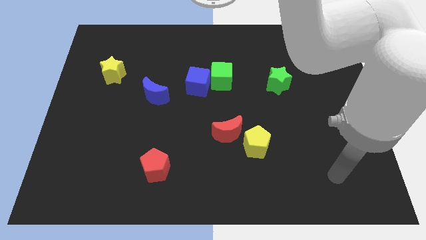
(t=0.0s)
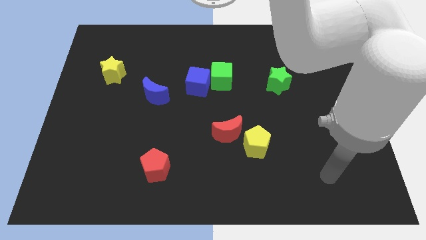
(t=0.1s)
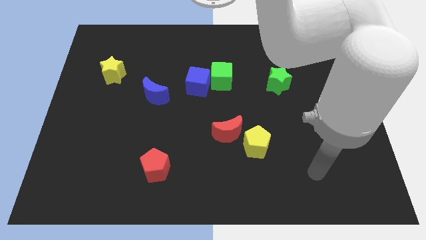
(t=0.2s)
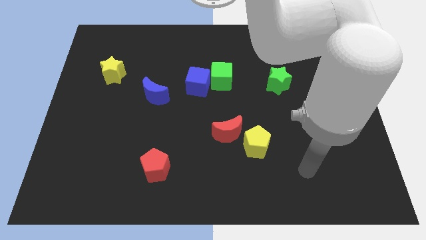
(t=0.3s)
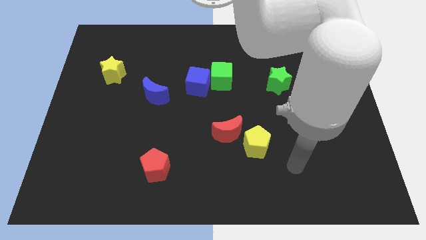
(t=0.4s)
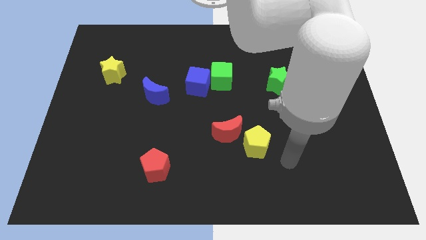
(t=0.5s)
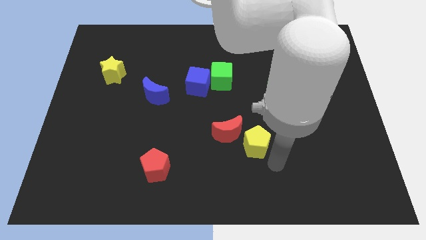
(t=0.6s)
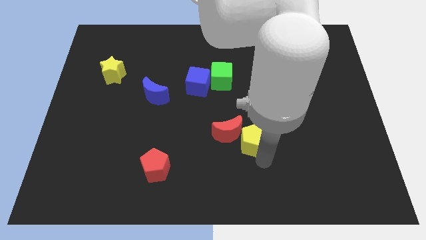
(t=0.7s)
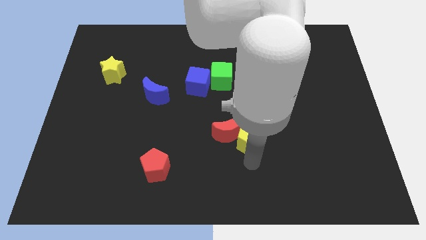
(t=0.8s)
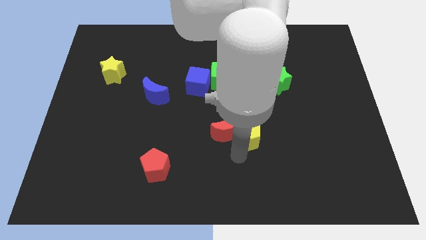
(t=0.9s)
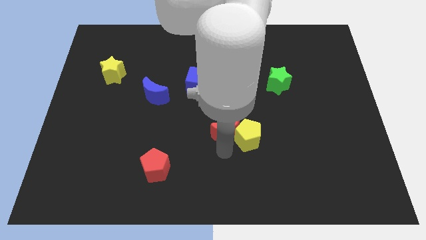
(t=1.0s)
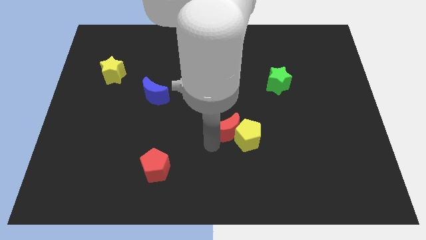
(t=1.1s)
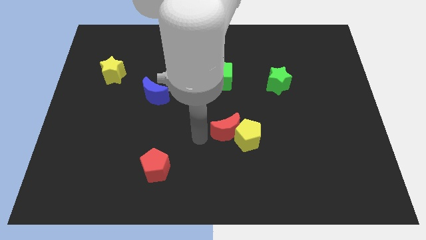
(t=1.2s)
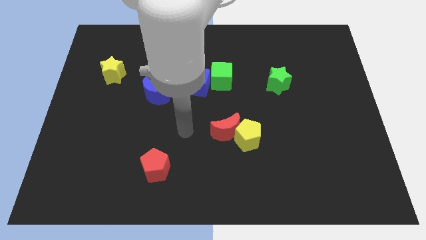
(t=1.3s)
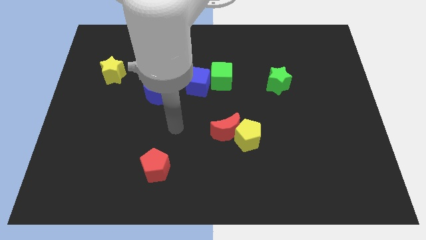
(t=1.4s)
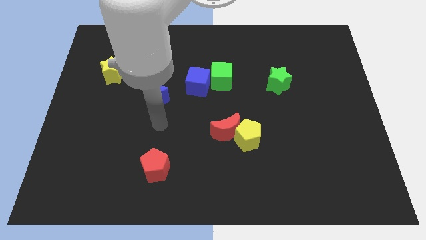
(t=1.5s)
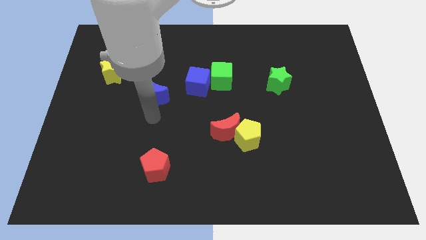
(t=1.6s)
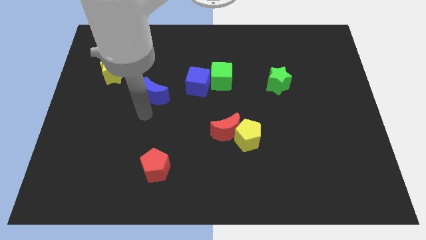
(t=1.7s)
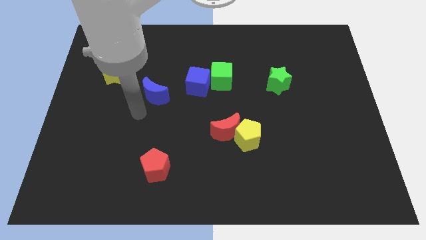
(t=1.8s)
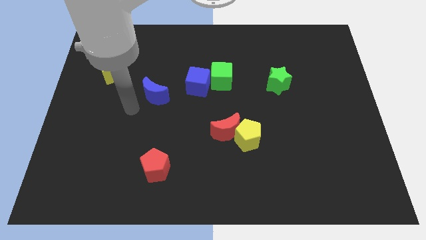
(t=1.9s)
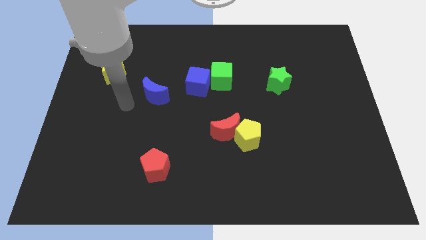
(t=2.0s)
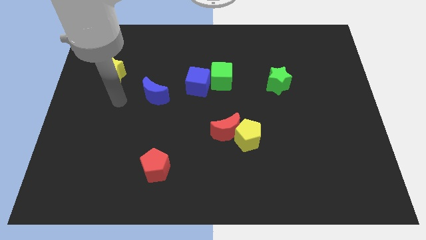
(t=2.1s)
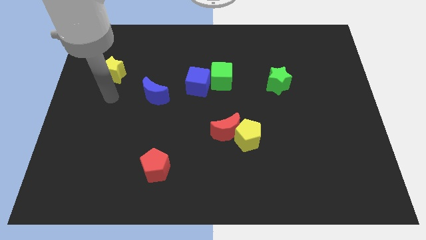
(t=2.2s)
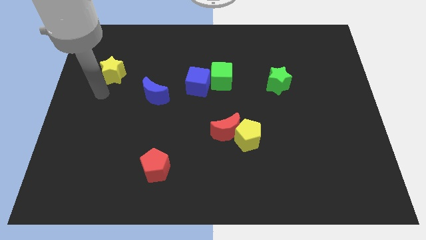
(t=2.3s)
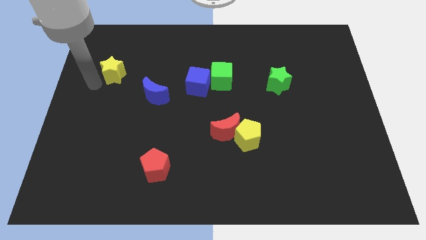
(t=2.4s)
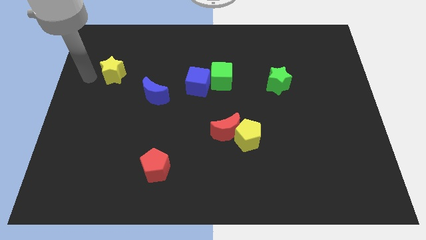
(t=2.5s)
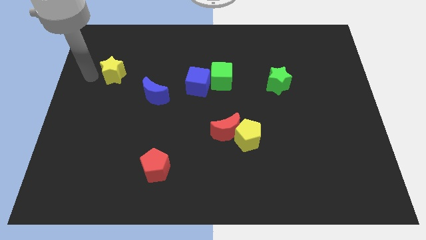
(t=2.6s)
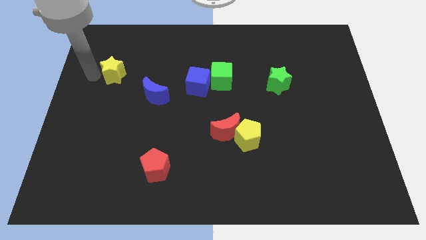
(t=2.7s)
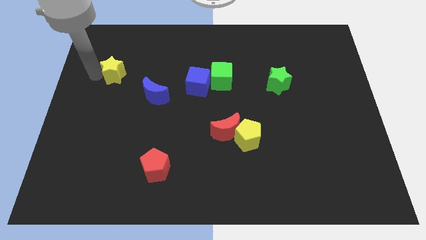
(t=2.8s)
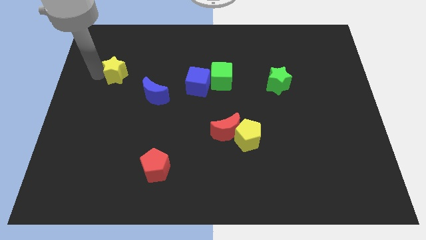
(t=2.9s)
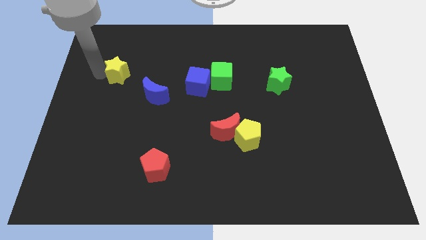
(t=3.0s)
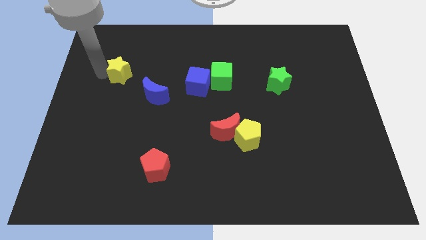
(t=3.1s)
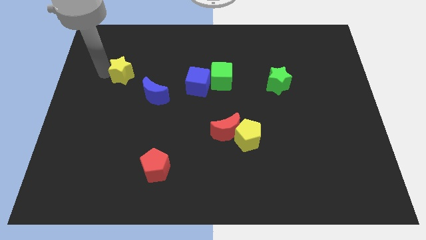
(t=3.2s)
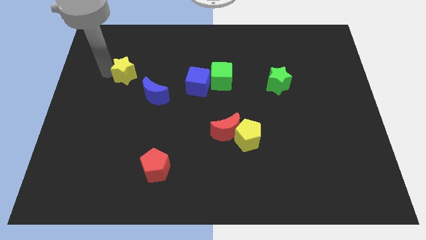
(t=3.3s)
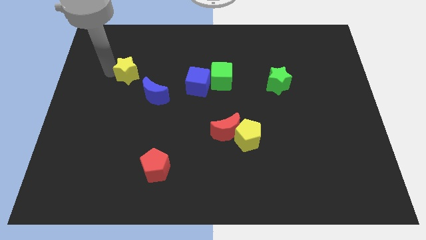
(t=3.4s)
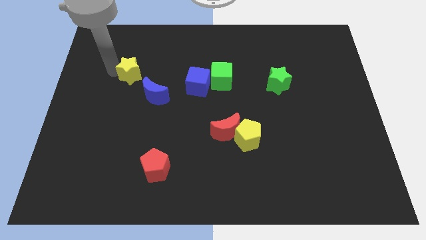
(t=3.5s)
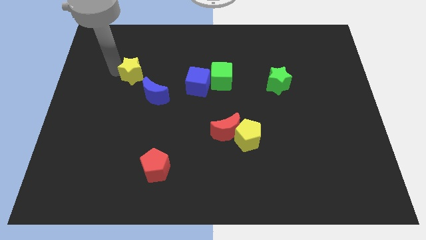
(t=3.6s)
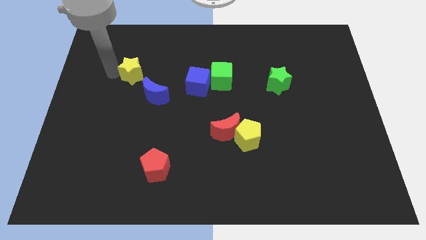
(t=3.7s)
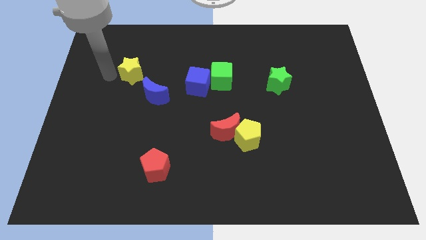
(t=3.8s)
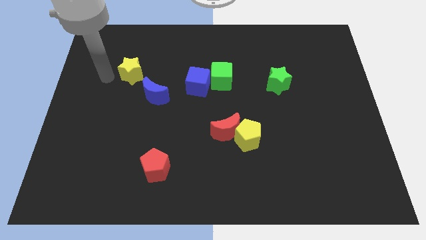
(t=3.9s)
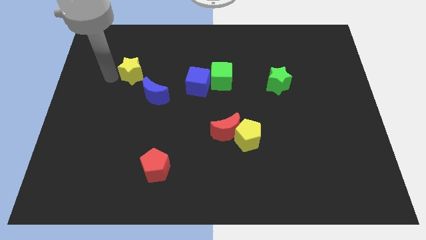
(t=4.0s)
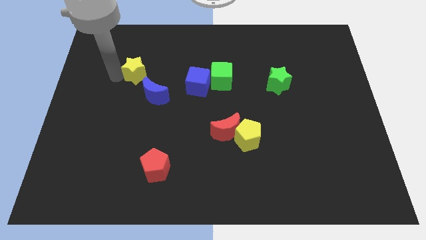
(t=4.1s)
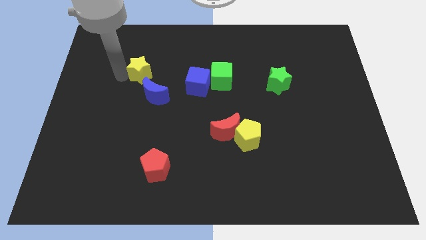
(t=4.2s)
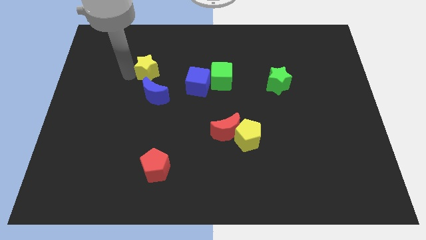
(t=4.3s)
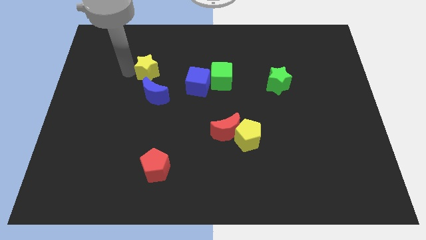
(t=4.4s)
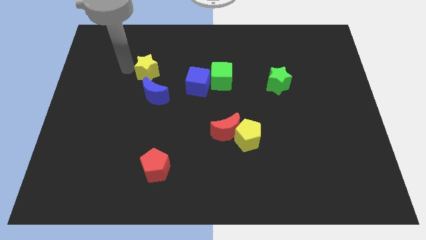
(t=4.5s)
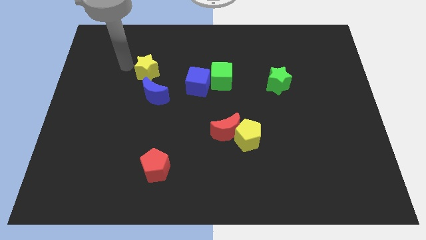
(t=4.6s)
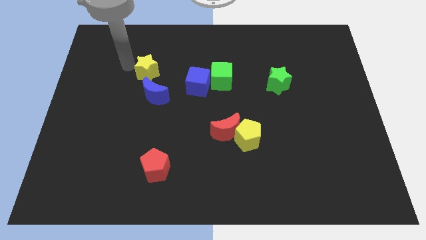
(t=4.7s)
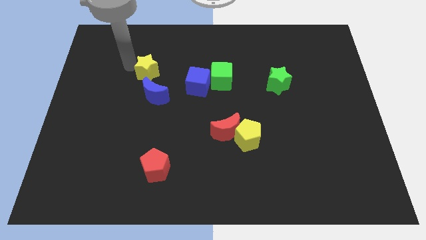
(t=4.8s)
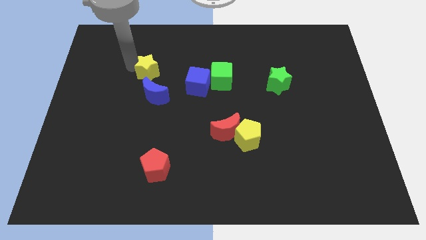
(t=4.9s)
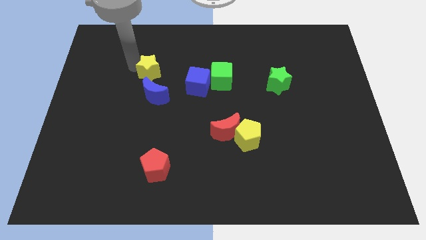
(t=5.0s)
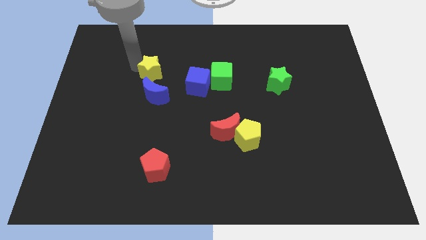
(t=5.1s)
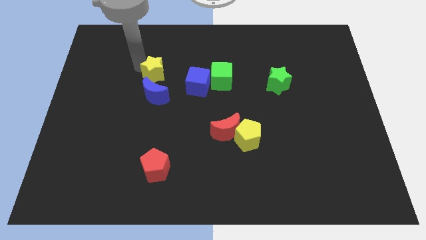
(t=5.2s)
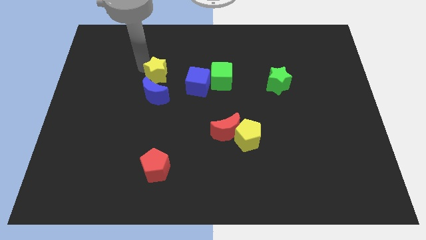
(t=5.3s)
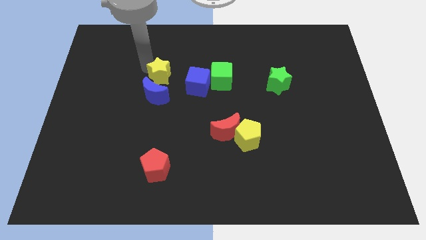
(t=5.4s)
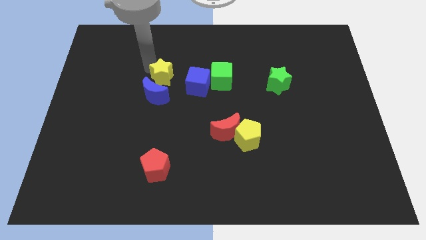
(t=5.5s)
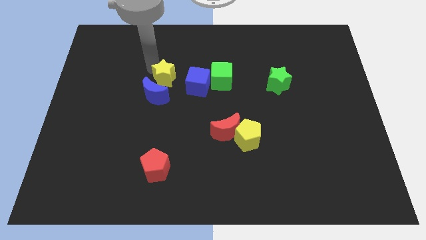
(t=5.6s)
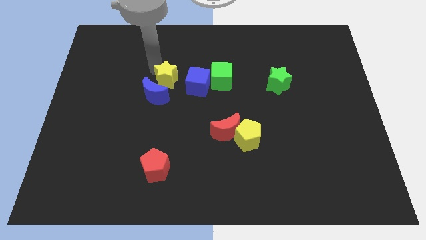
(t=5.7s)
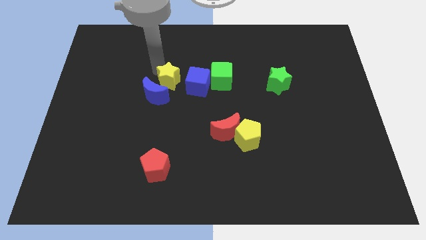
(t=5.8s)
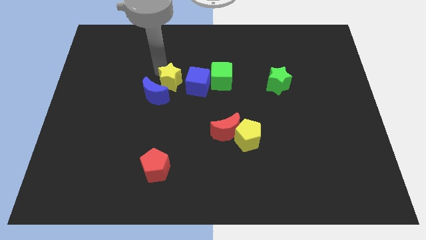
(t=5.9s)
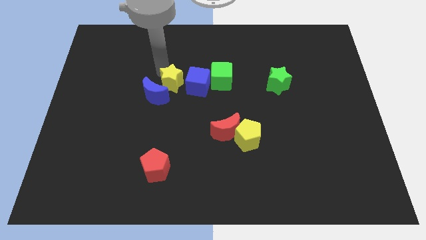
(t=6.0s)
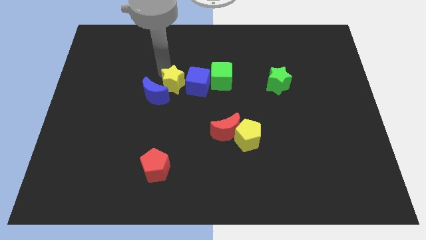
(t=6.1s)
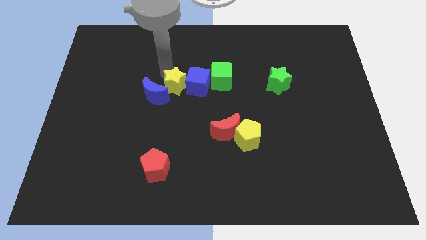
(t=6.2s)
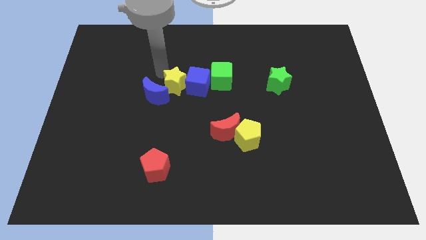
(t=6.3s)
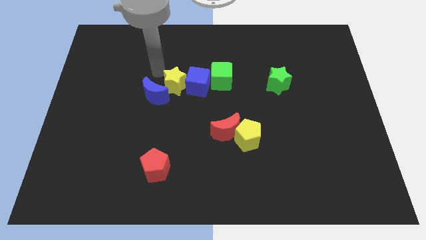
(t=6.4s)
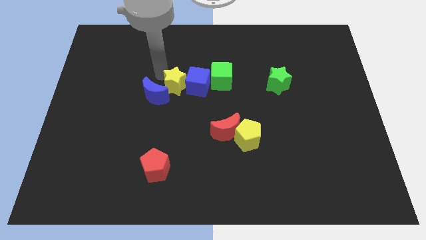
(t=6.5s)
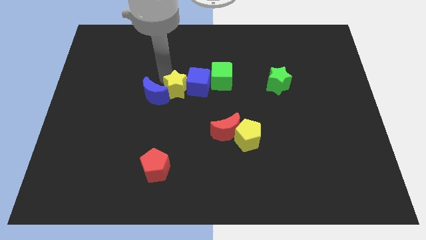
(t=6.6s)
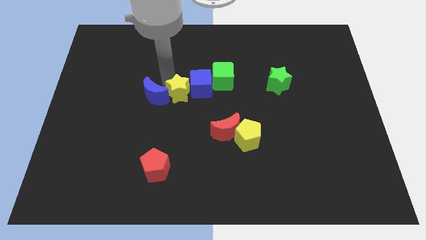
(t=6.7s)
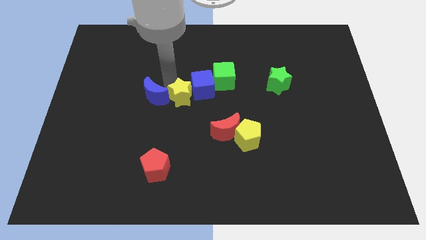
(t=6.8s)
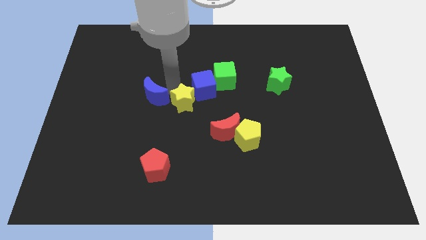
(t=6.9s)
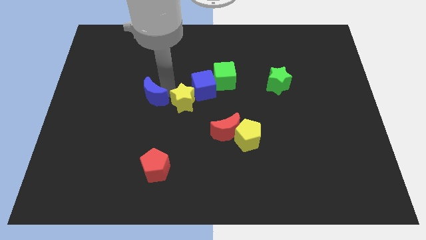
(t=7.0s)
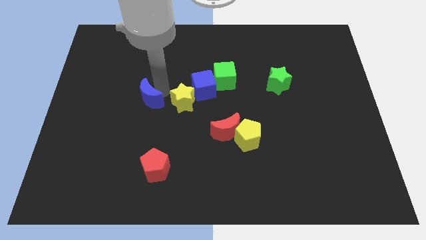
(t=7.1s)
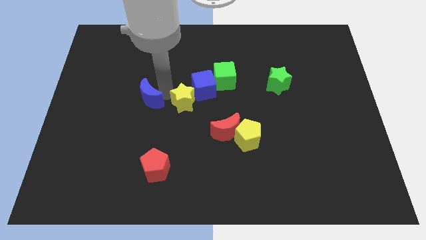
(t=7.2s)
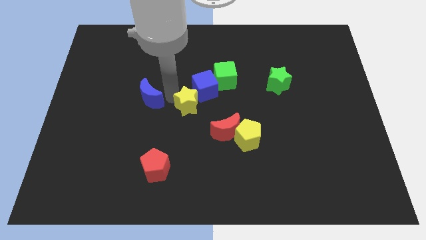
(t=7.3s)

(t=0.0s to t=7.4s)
move the yellow star to the top left side of the red moon
